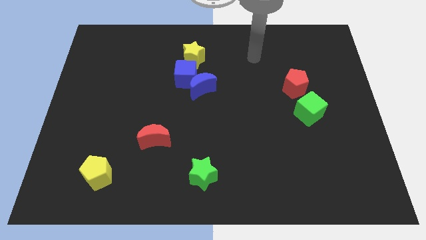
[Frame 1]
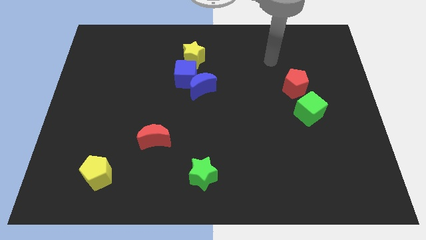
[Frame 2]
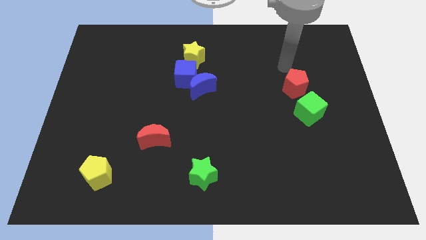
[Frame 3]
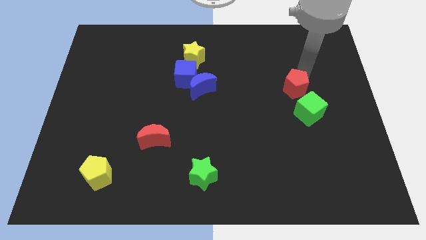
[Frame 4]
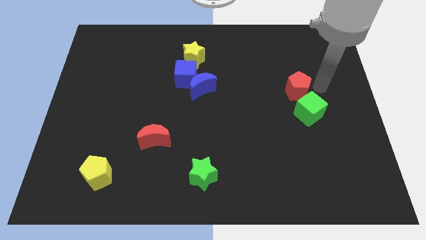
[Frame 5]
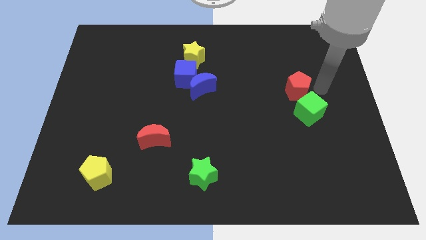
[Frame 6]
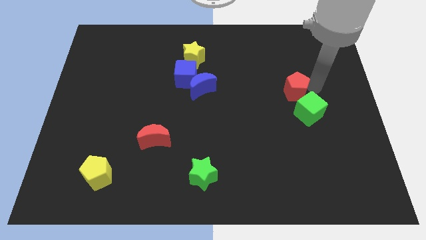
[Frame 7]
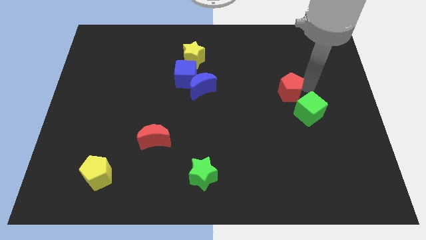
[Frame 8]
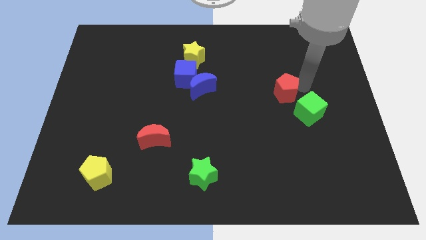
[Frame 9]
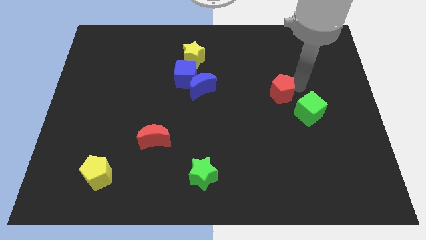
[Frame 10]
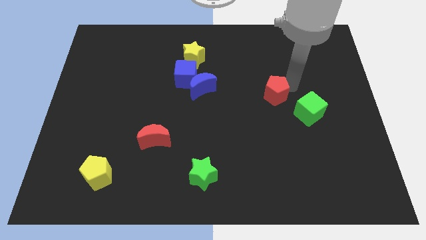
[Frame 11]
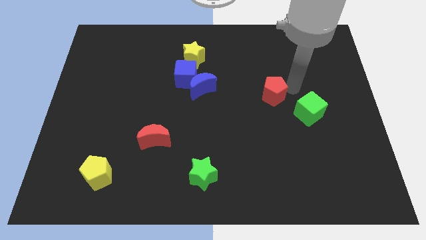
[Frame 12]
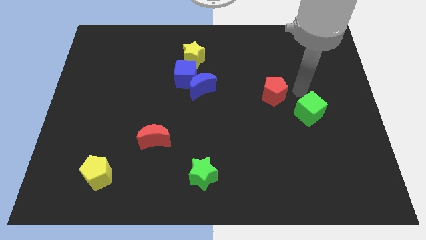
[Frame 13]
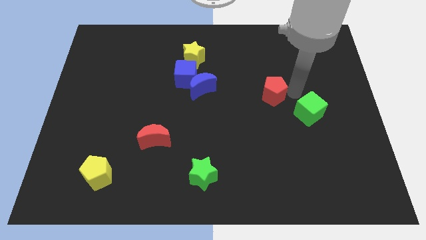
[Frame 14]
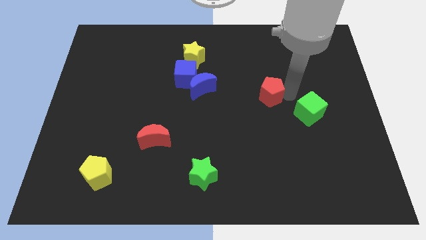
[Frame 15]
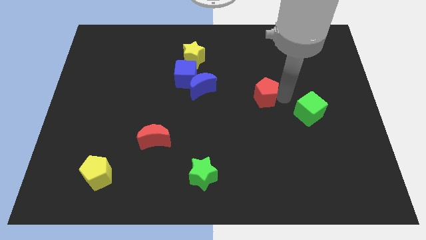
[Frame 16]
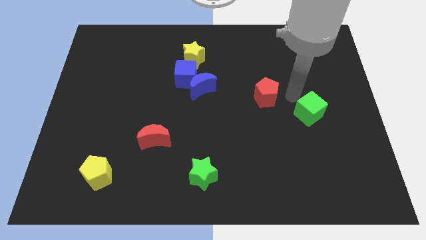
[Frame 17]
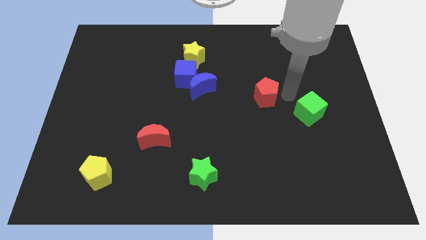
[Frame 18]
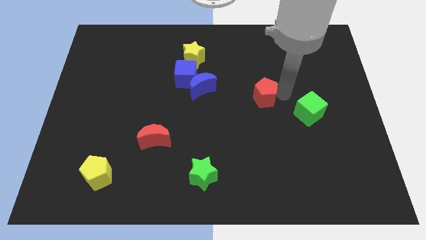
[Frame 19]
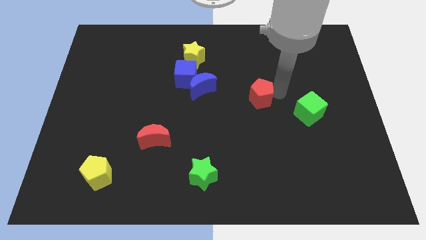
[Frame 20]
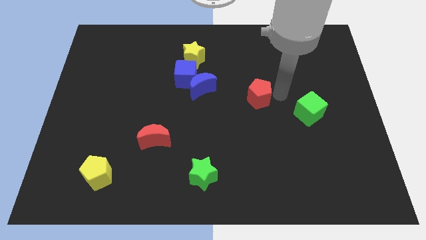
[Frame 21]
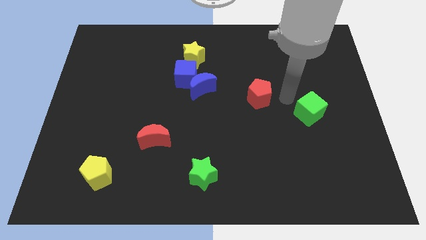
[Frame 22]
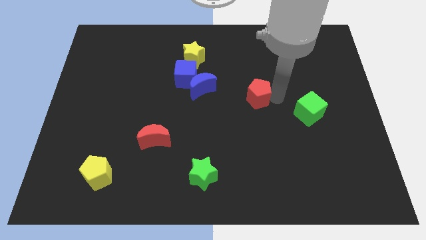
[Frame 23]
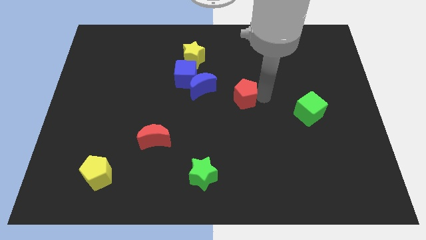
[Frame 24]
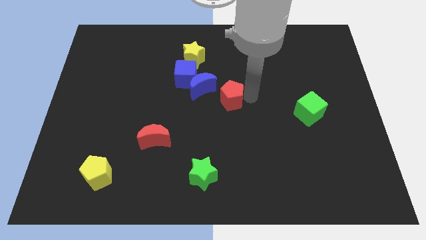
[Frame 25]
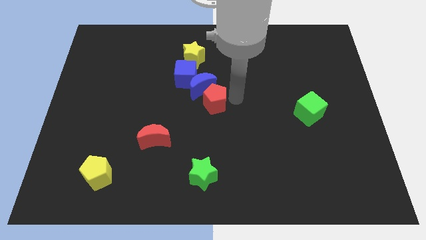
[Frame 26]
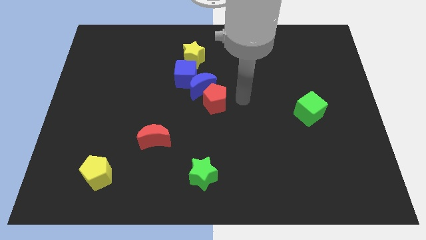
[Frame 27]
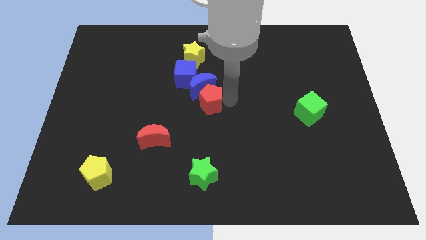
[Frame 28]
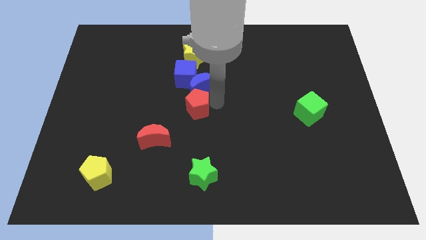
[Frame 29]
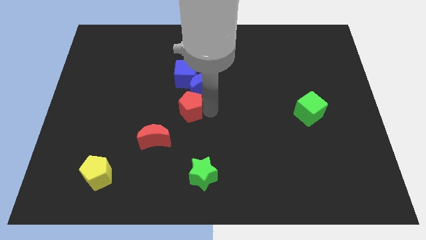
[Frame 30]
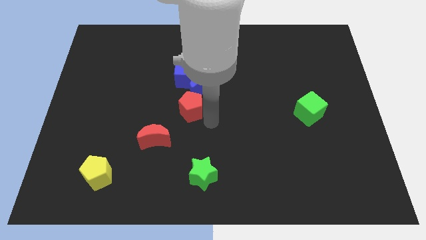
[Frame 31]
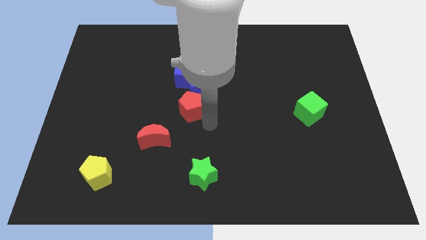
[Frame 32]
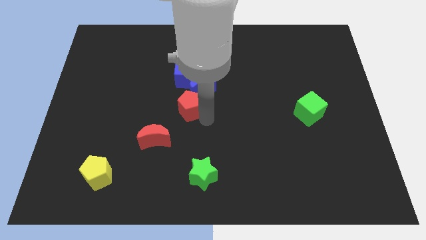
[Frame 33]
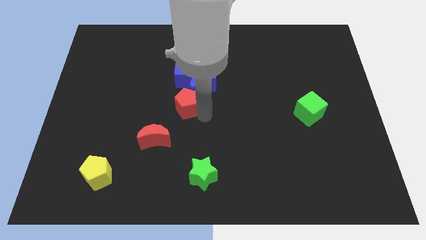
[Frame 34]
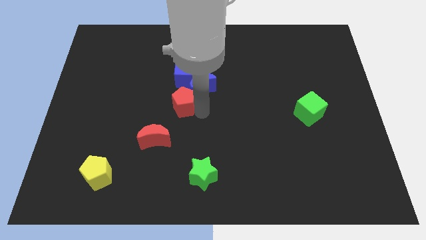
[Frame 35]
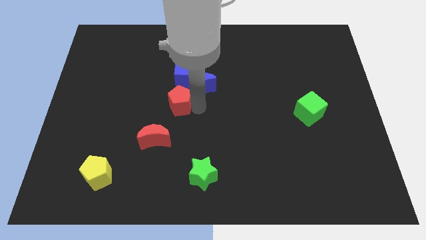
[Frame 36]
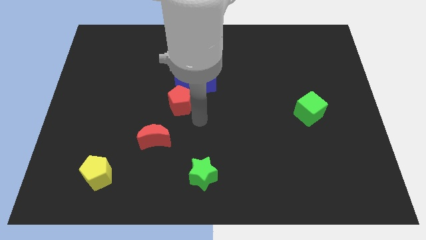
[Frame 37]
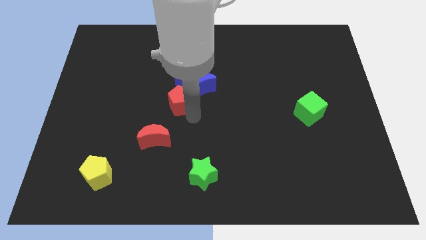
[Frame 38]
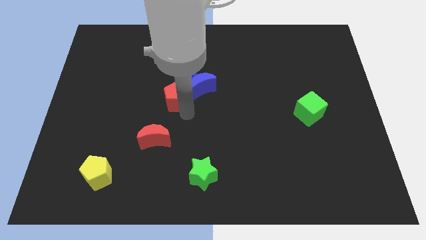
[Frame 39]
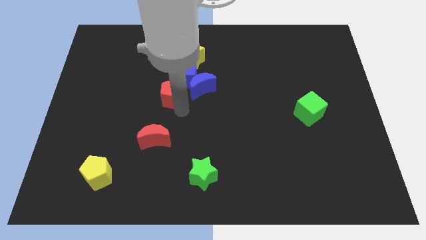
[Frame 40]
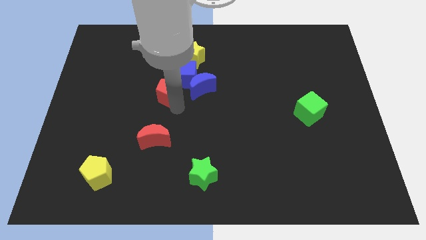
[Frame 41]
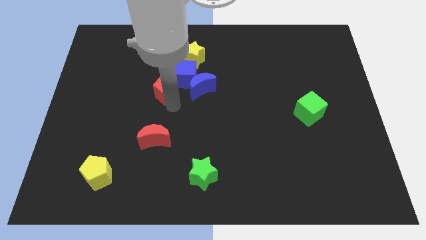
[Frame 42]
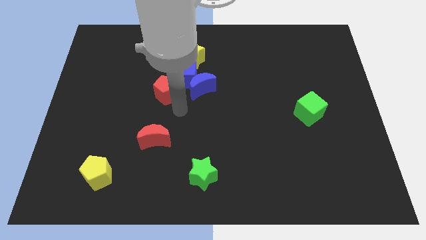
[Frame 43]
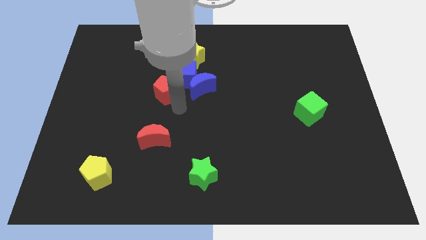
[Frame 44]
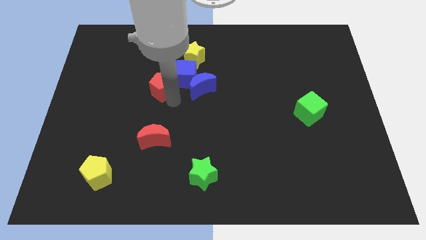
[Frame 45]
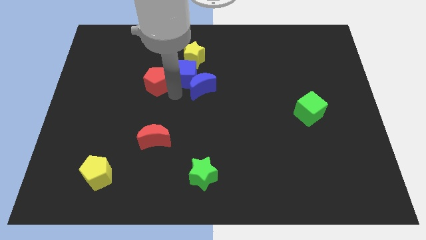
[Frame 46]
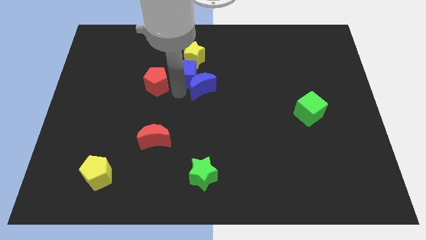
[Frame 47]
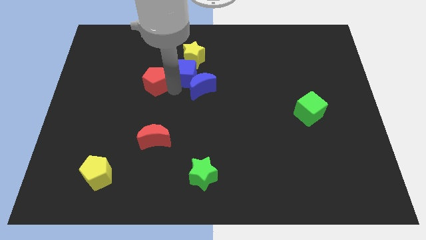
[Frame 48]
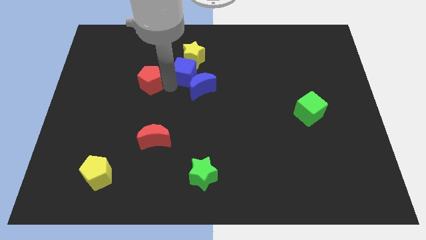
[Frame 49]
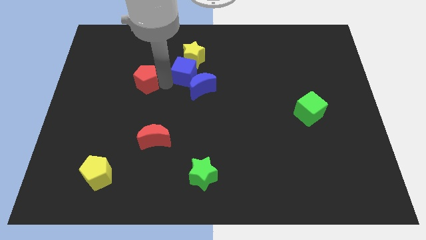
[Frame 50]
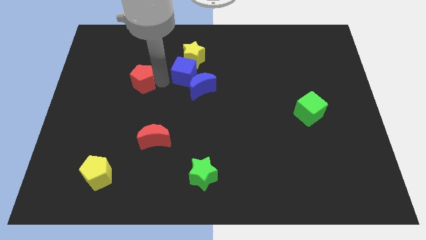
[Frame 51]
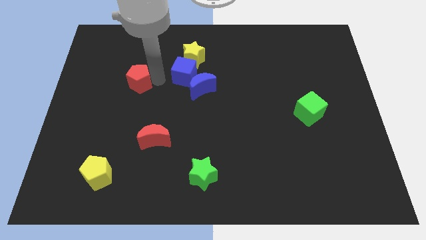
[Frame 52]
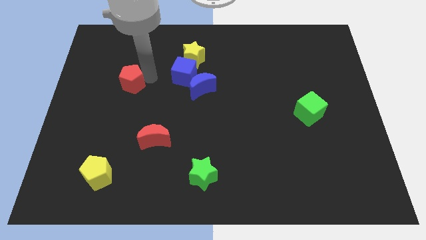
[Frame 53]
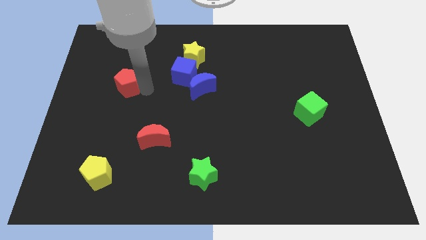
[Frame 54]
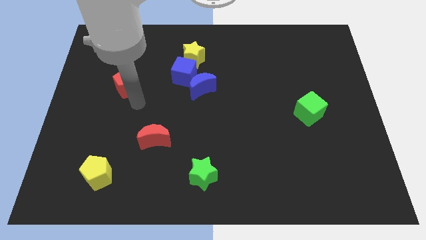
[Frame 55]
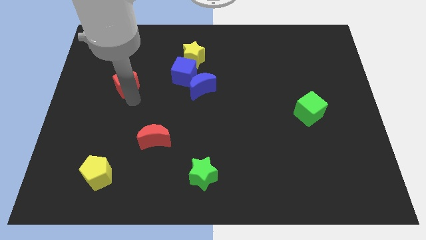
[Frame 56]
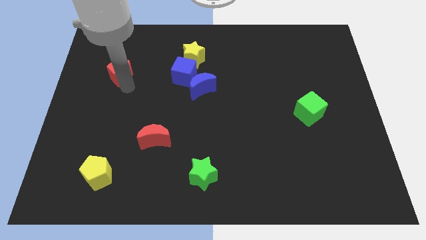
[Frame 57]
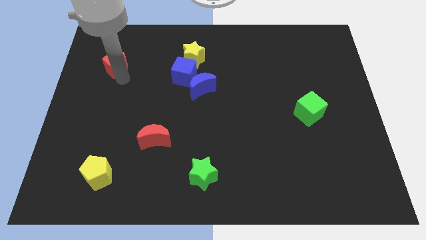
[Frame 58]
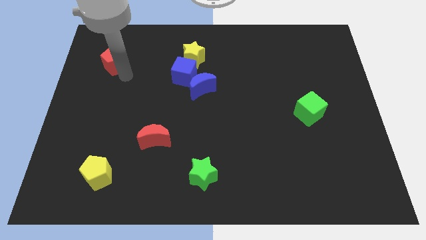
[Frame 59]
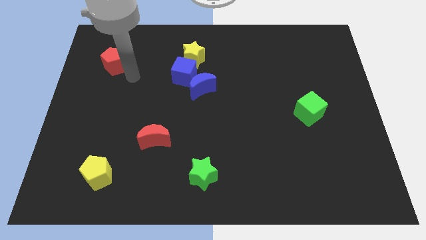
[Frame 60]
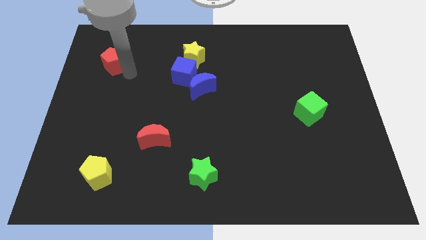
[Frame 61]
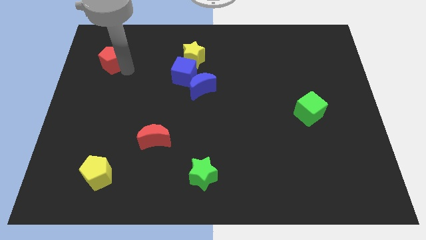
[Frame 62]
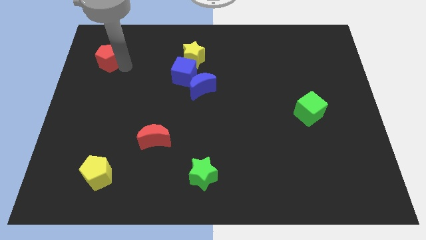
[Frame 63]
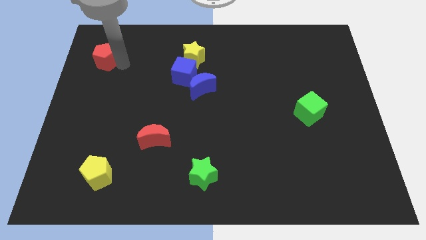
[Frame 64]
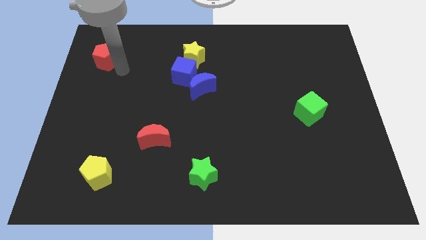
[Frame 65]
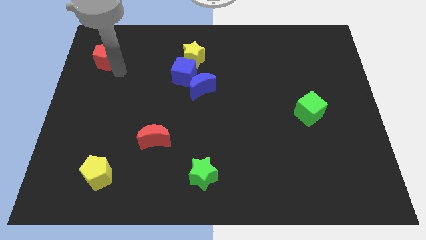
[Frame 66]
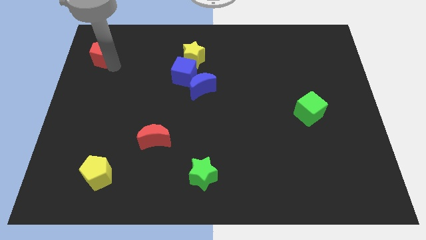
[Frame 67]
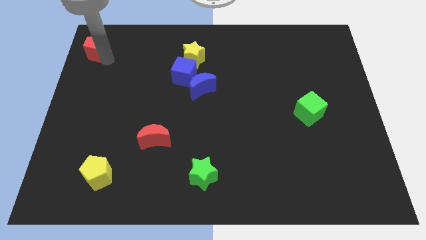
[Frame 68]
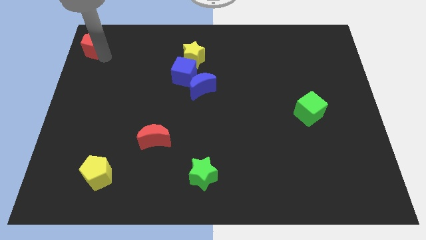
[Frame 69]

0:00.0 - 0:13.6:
move the red pentagon to the top left of the board
